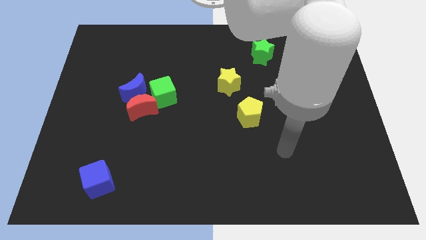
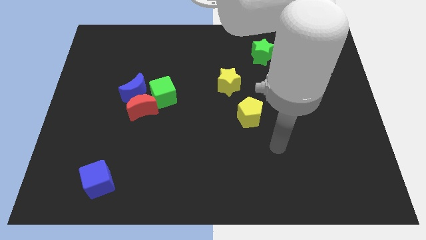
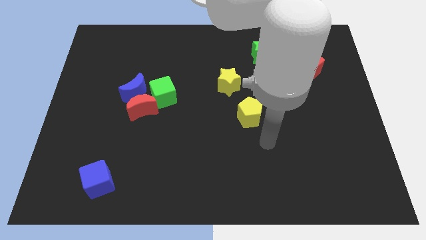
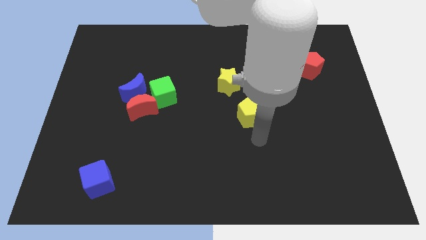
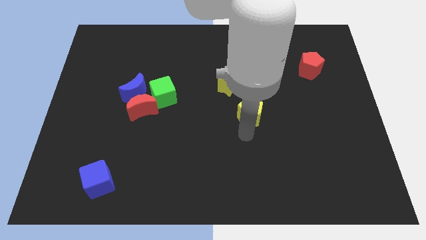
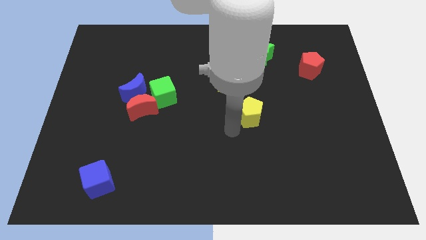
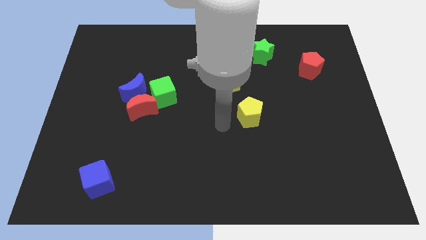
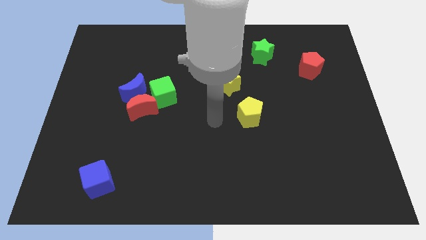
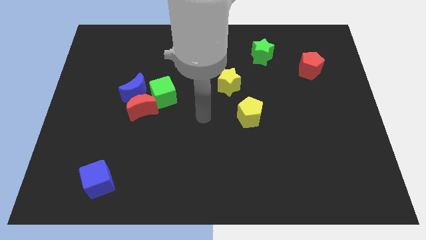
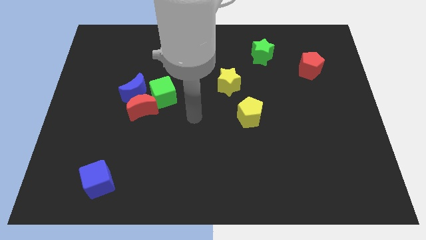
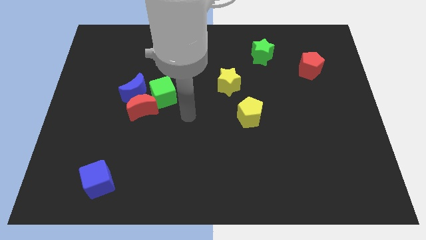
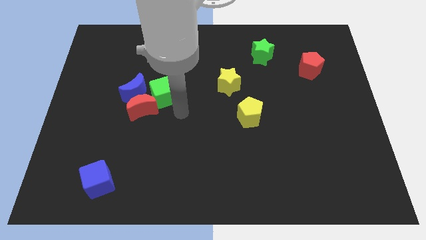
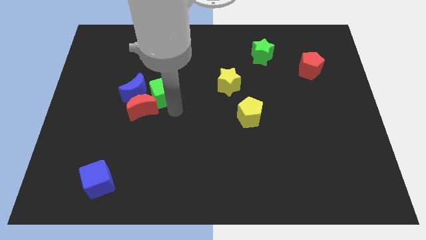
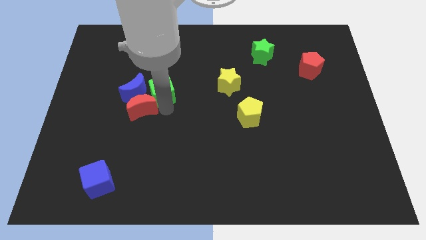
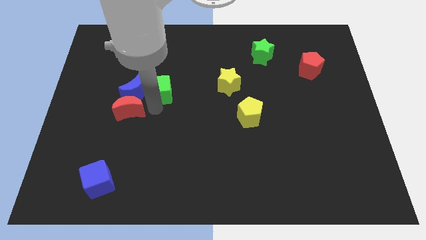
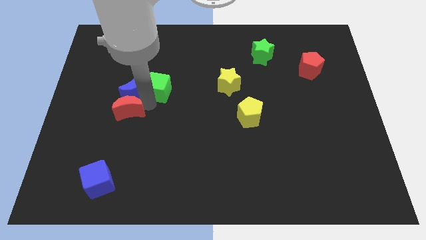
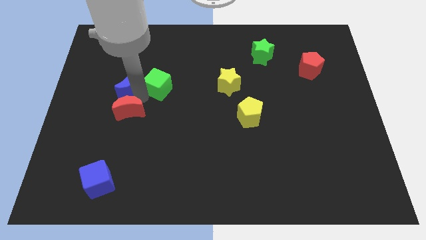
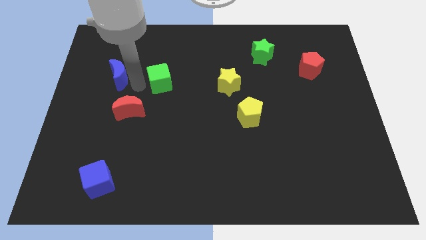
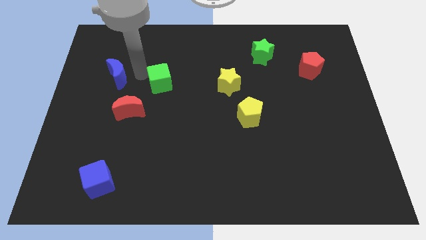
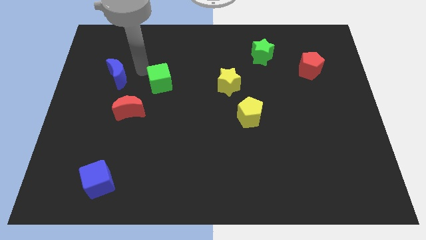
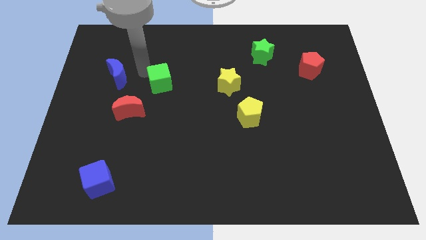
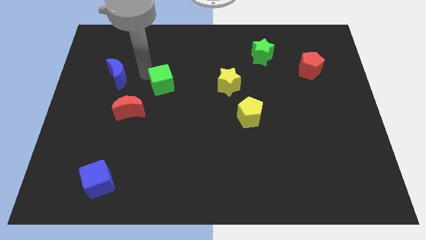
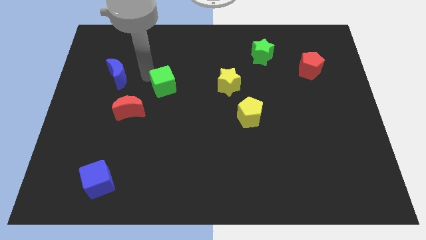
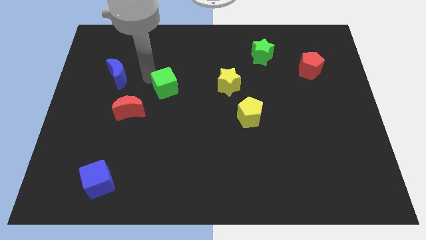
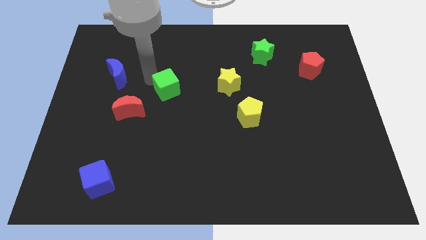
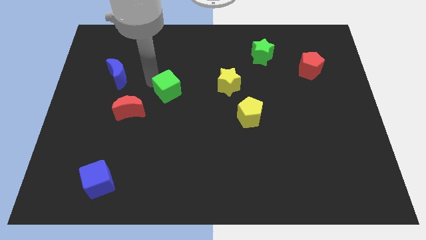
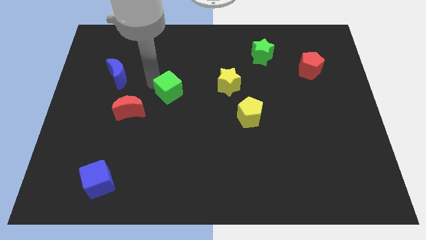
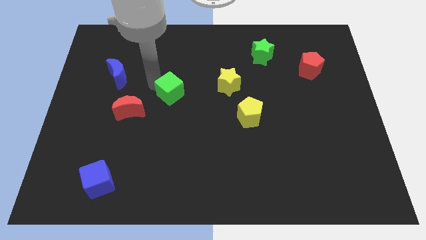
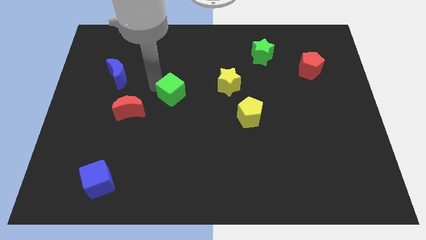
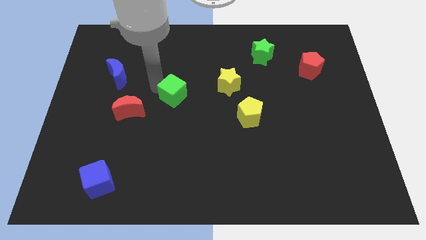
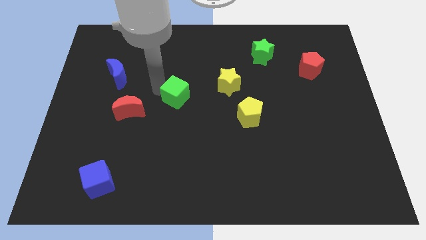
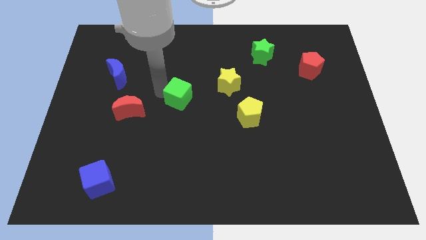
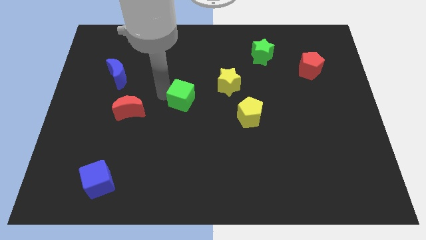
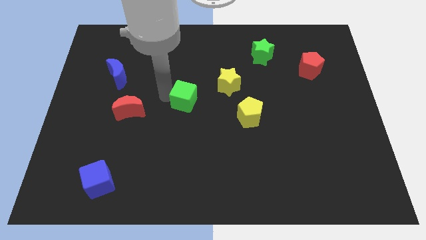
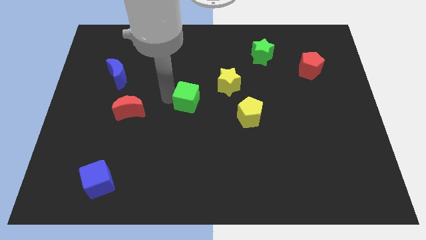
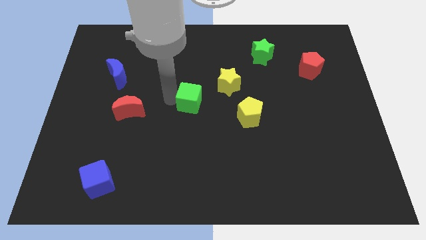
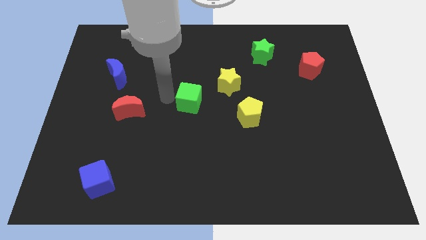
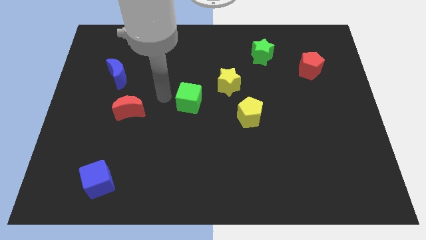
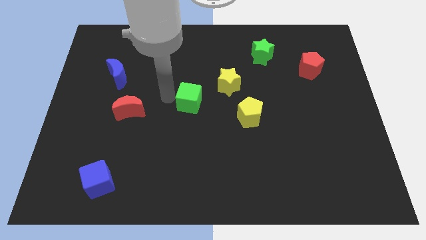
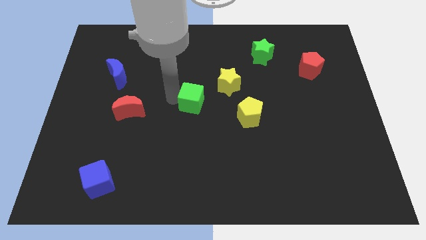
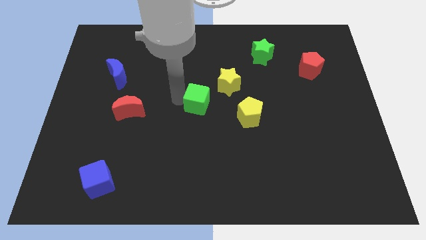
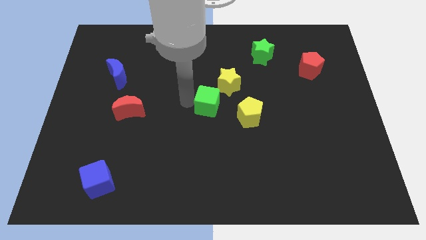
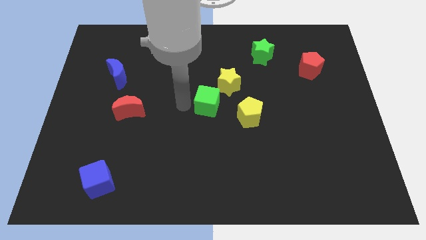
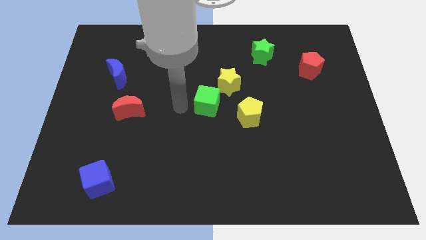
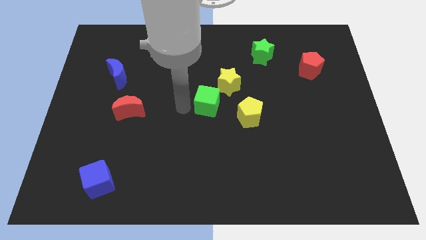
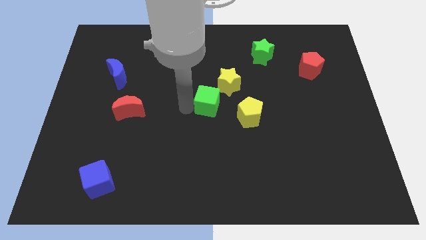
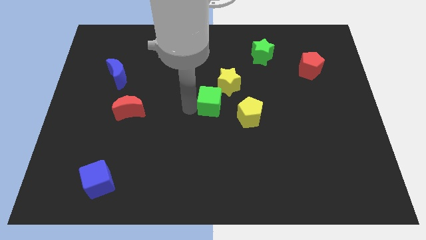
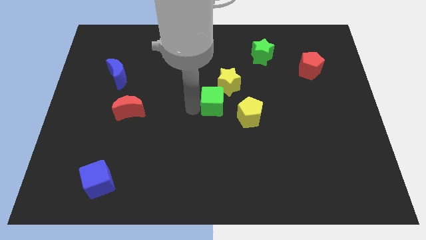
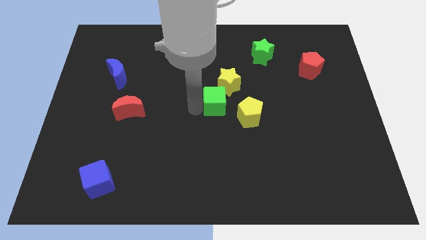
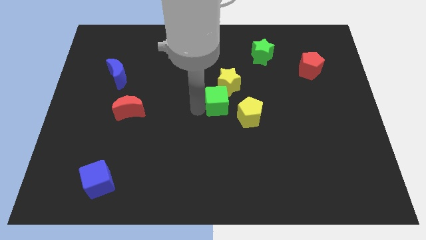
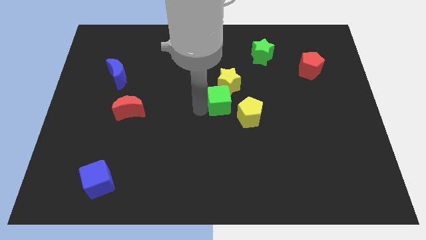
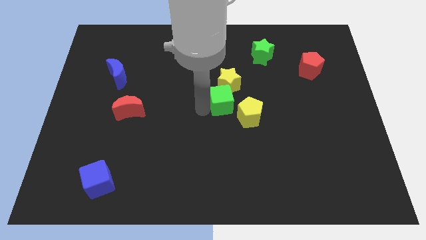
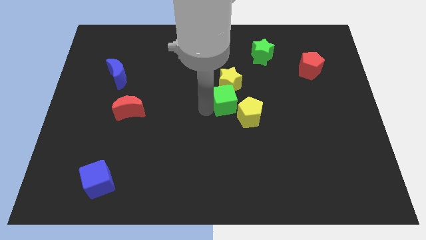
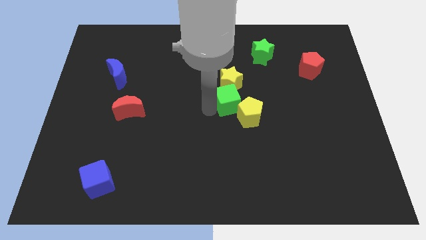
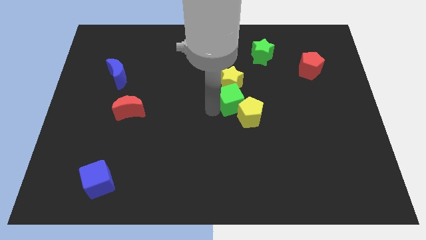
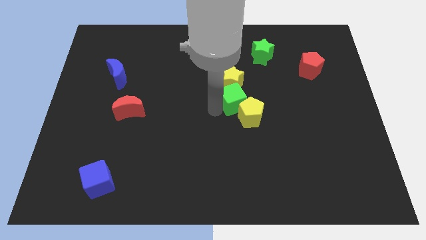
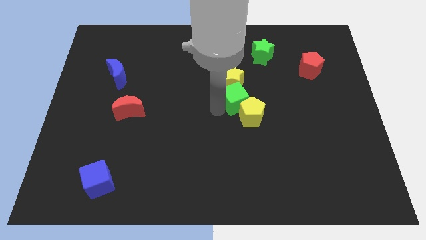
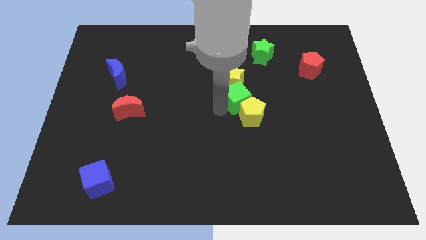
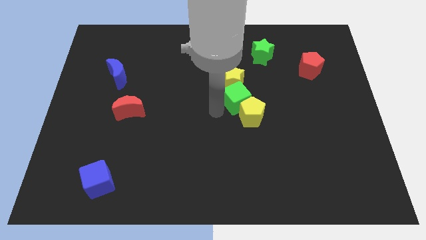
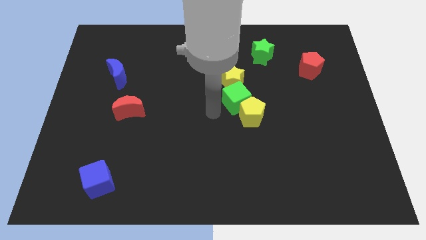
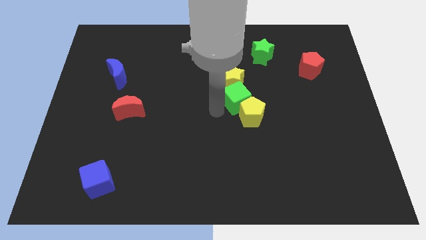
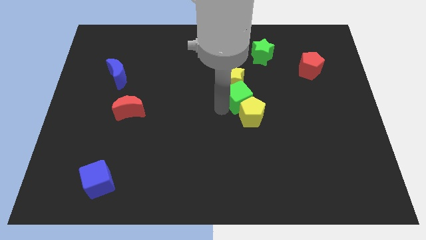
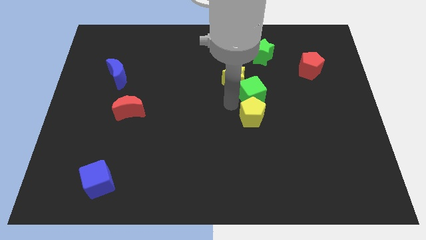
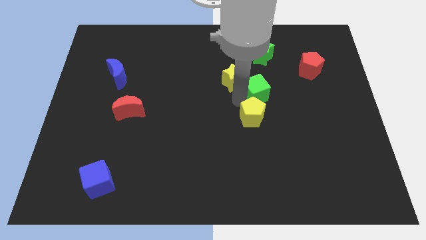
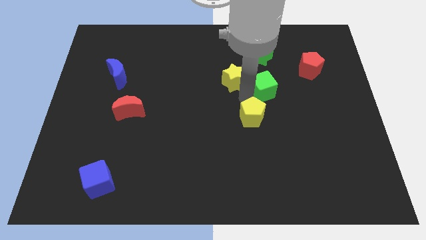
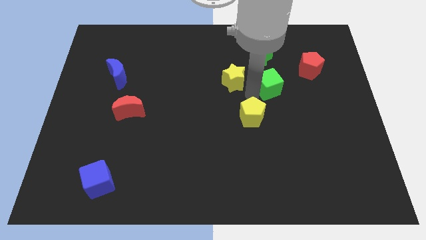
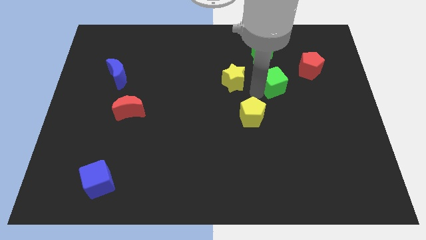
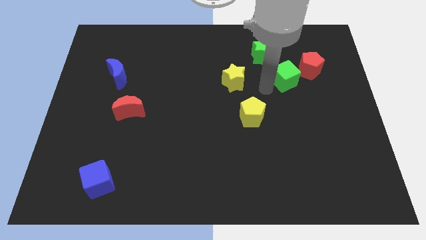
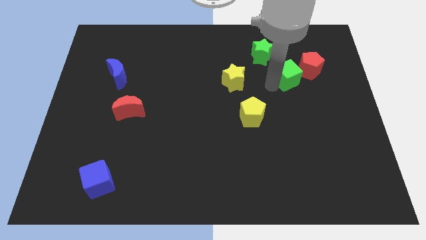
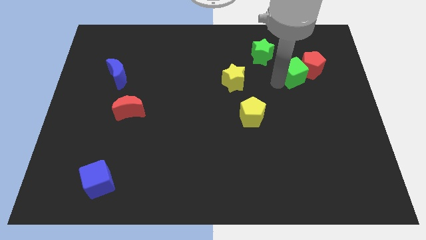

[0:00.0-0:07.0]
slide the green cube towards the red pentagon
